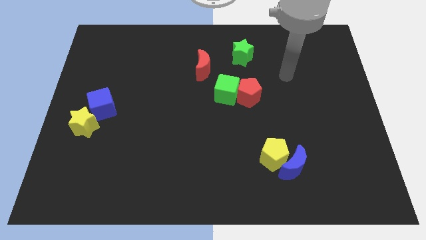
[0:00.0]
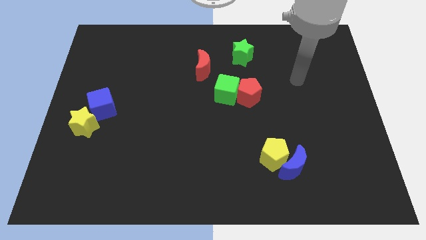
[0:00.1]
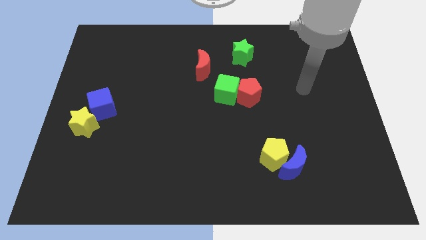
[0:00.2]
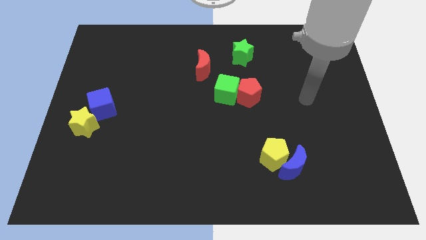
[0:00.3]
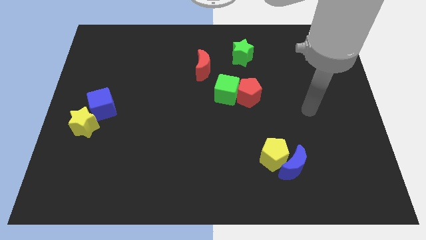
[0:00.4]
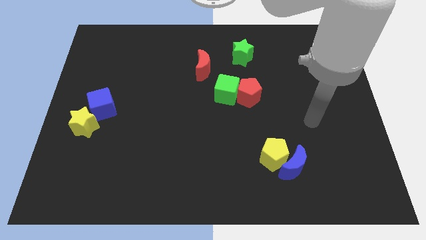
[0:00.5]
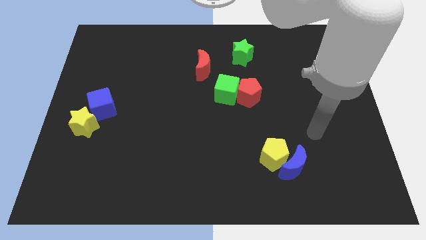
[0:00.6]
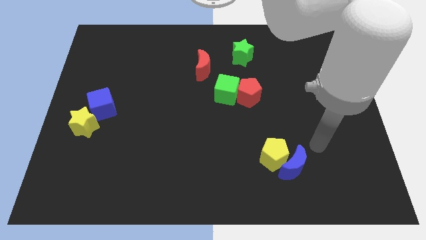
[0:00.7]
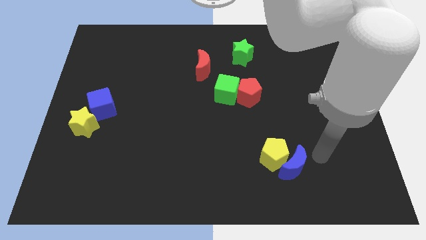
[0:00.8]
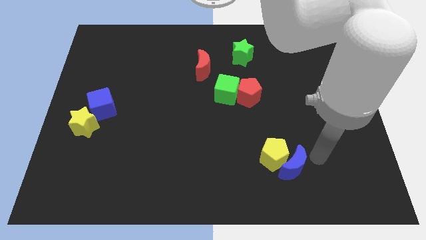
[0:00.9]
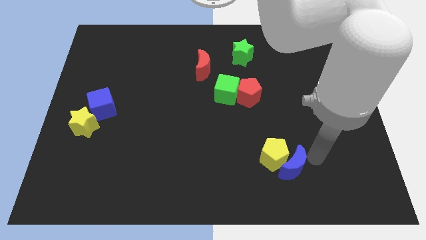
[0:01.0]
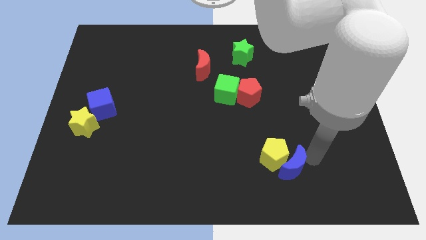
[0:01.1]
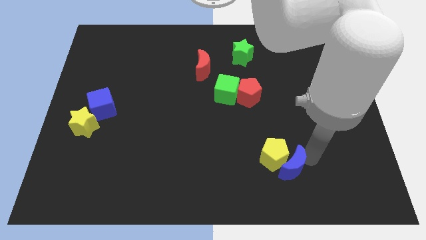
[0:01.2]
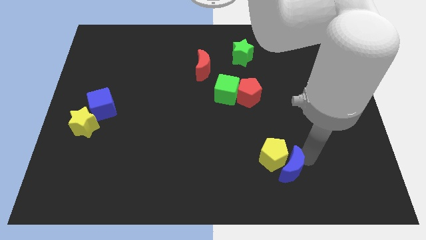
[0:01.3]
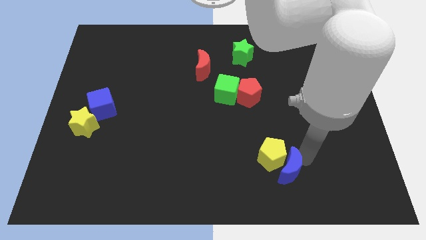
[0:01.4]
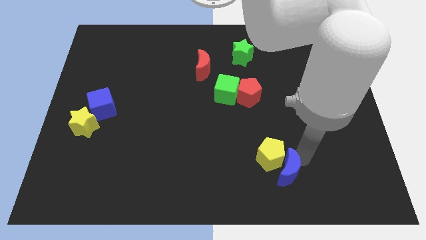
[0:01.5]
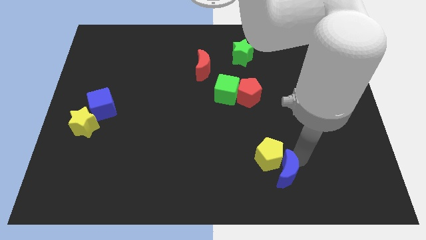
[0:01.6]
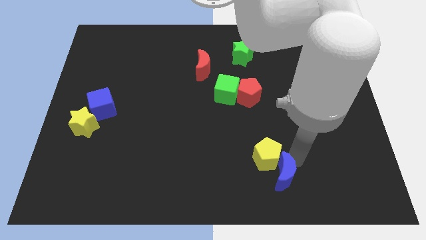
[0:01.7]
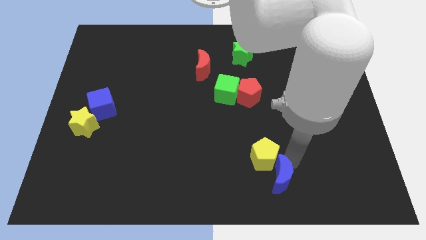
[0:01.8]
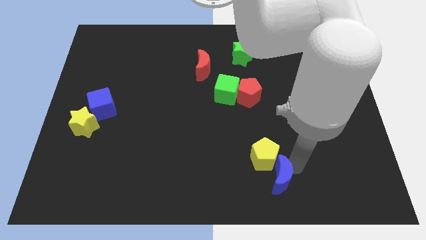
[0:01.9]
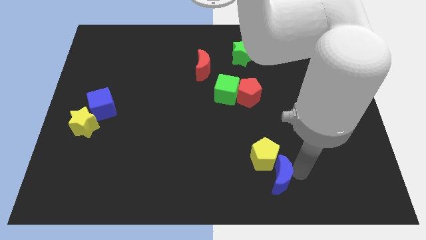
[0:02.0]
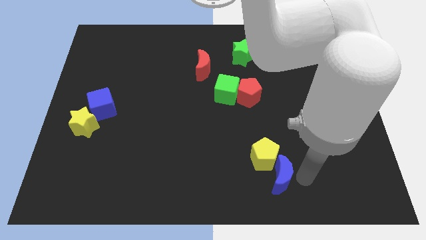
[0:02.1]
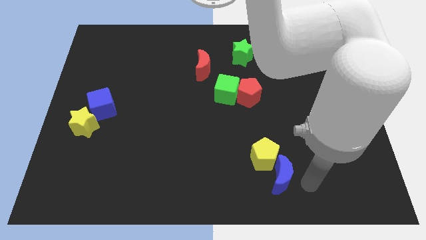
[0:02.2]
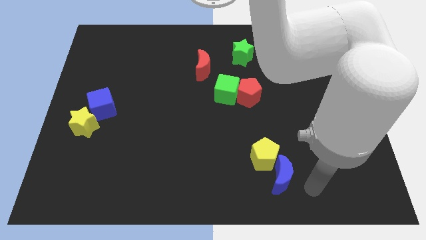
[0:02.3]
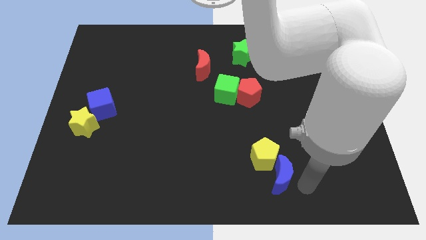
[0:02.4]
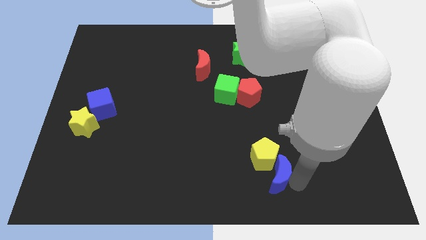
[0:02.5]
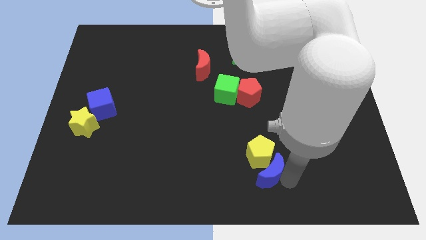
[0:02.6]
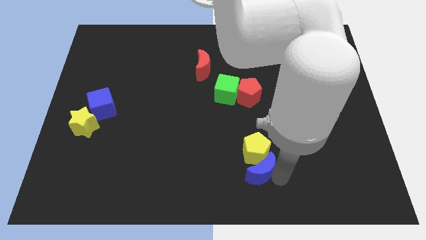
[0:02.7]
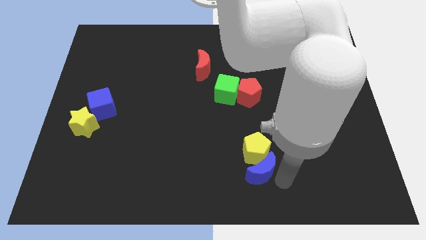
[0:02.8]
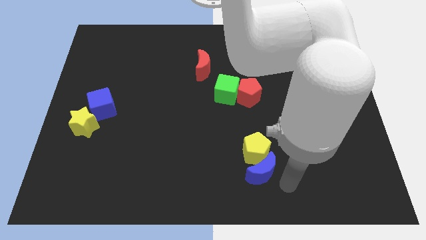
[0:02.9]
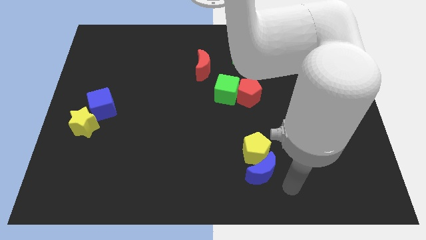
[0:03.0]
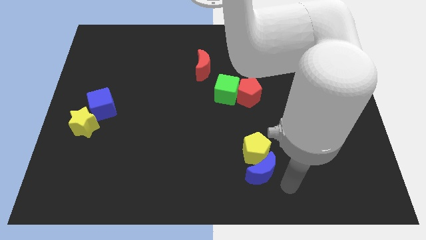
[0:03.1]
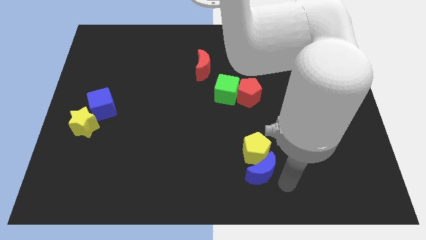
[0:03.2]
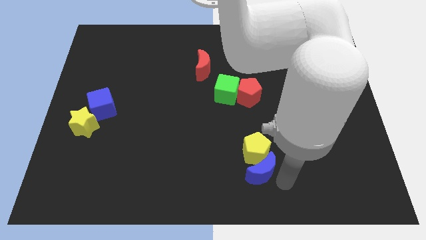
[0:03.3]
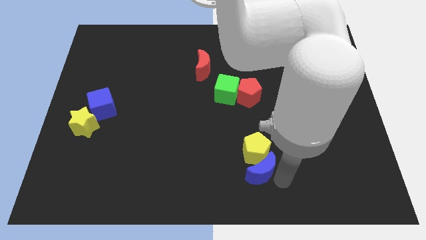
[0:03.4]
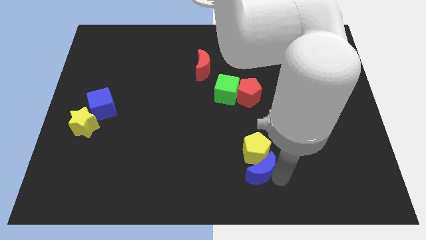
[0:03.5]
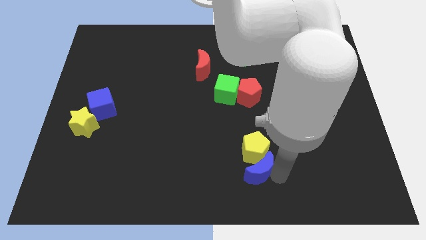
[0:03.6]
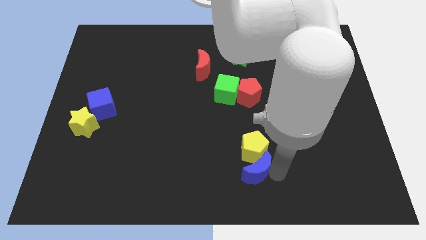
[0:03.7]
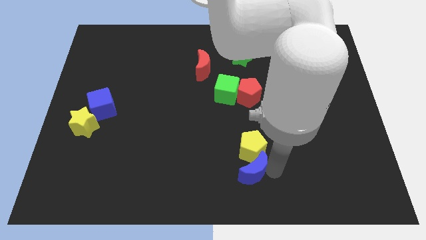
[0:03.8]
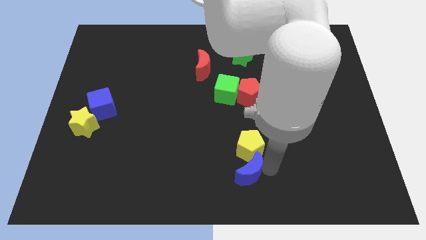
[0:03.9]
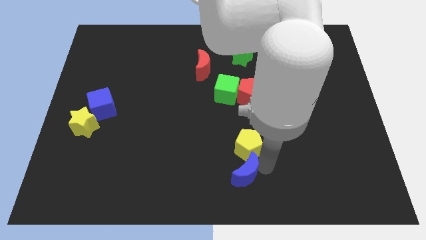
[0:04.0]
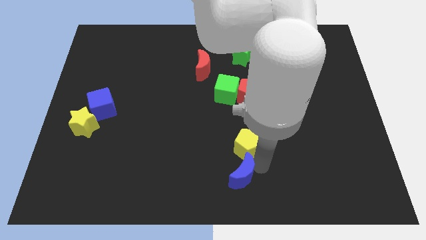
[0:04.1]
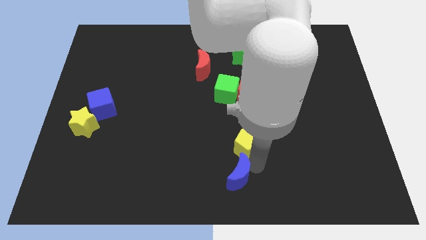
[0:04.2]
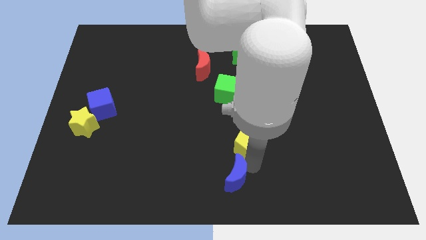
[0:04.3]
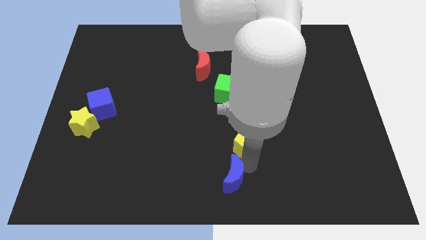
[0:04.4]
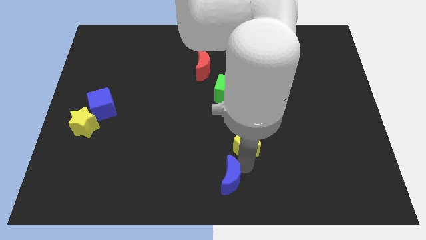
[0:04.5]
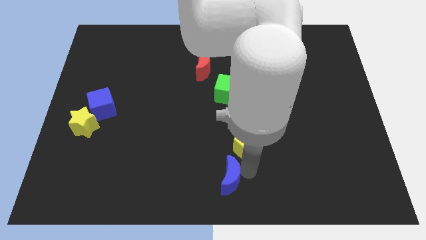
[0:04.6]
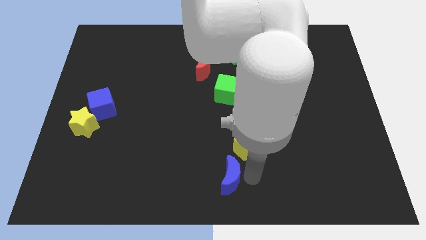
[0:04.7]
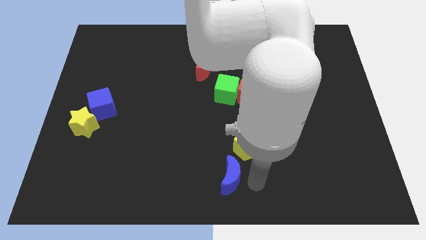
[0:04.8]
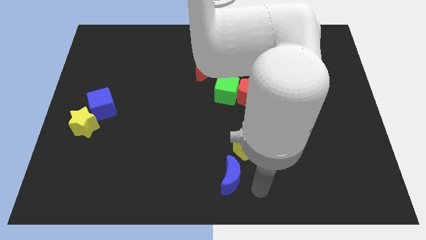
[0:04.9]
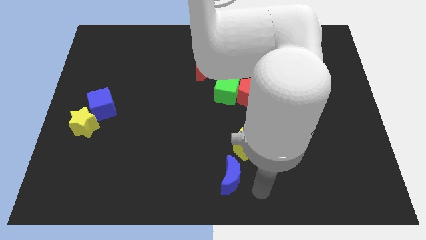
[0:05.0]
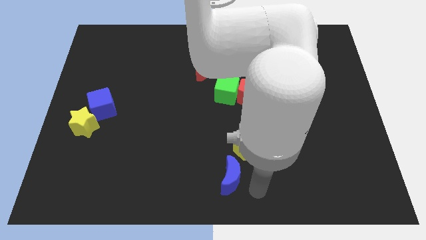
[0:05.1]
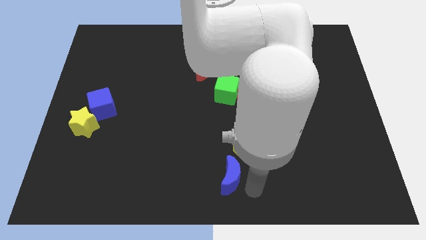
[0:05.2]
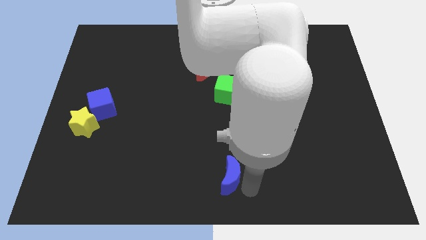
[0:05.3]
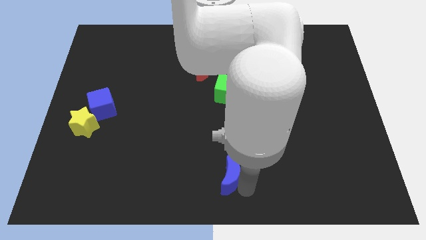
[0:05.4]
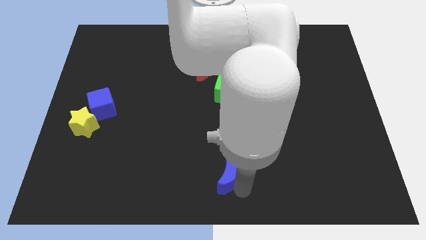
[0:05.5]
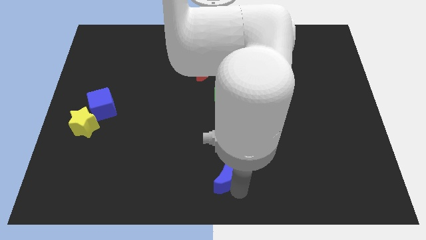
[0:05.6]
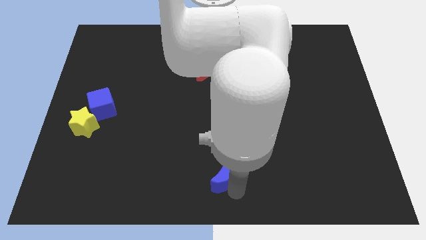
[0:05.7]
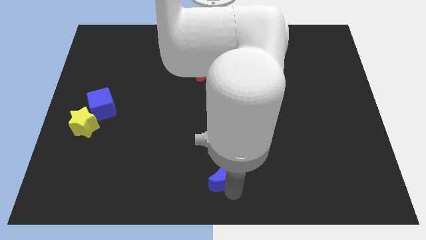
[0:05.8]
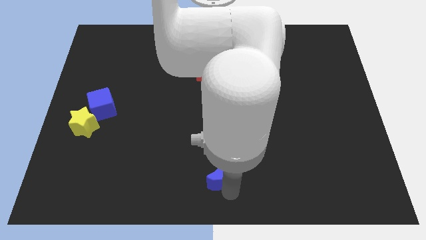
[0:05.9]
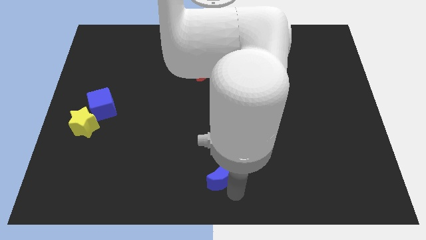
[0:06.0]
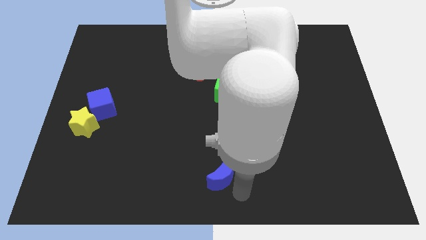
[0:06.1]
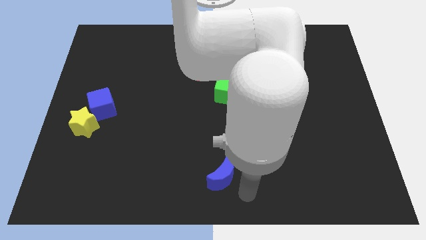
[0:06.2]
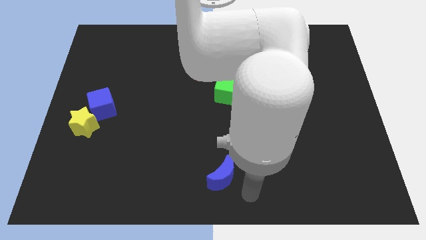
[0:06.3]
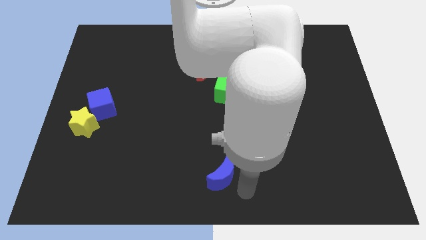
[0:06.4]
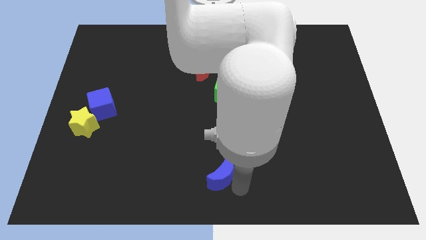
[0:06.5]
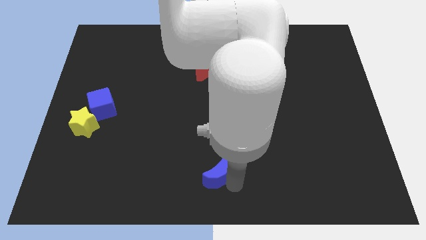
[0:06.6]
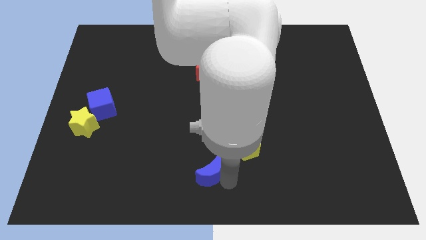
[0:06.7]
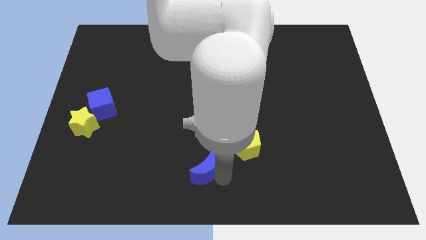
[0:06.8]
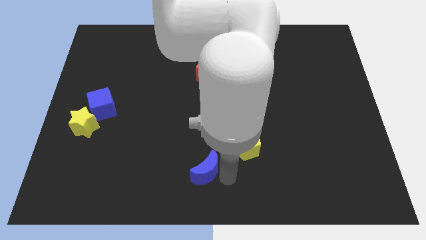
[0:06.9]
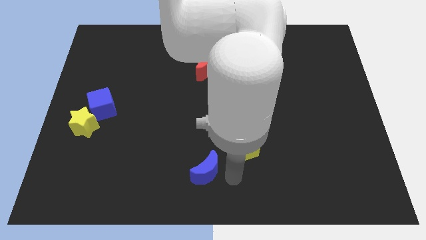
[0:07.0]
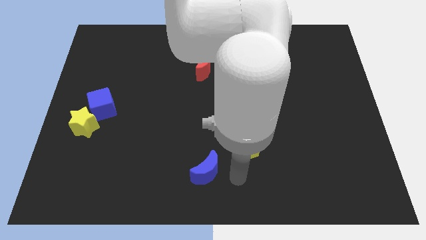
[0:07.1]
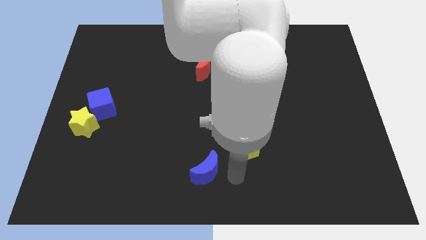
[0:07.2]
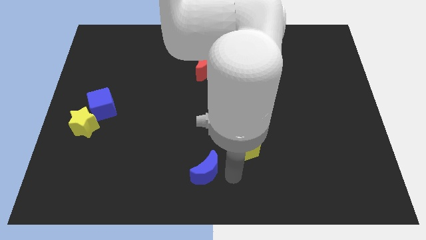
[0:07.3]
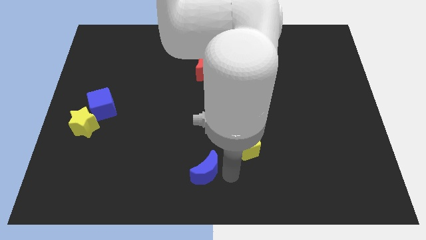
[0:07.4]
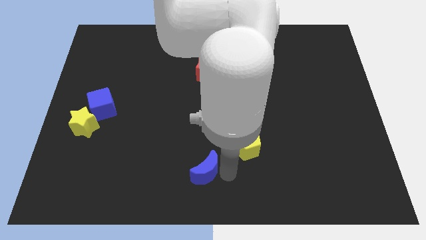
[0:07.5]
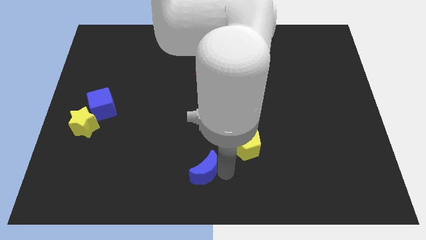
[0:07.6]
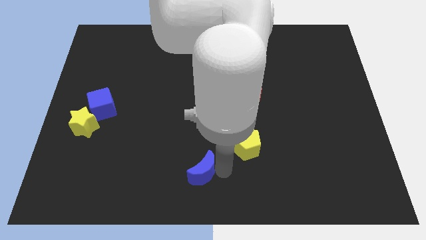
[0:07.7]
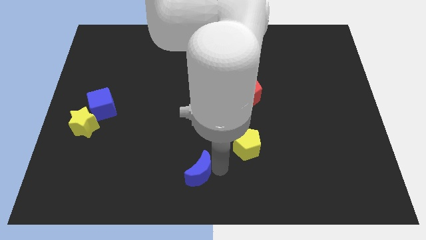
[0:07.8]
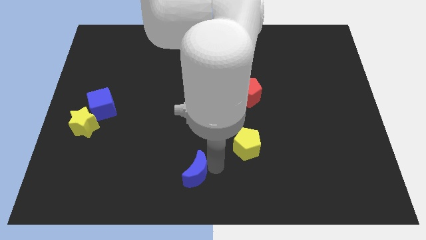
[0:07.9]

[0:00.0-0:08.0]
slide the blue moon left

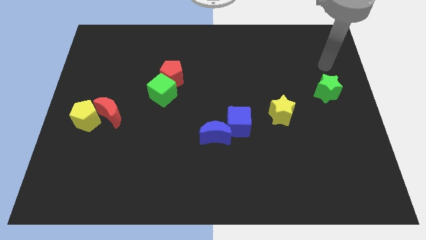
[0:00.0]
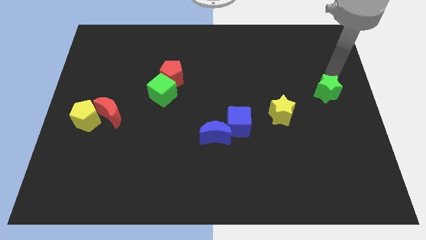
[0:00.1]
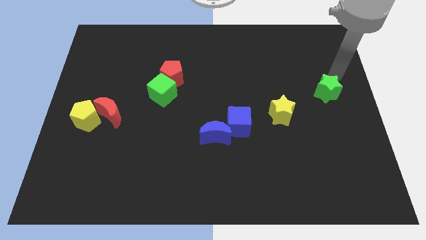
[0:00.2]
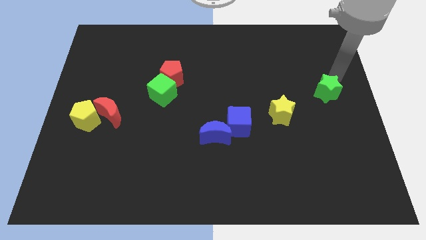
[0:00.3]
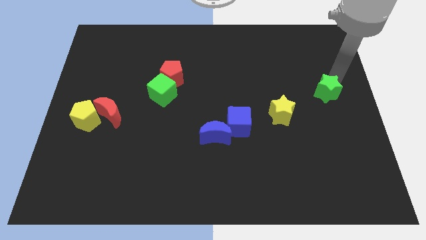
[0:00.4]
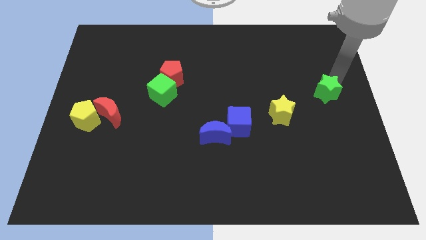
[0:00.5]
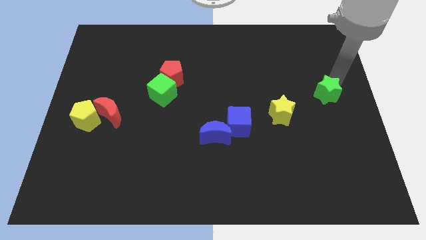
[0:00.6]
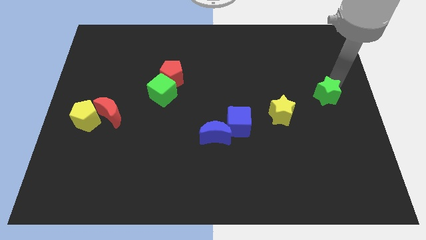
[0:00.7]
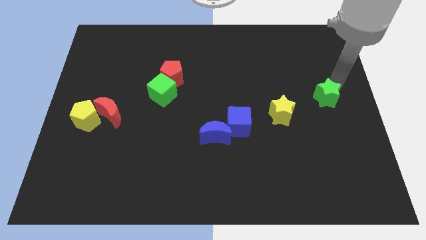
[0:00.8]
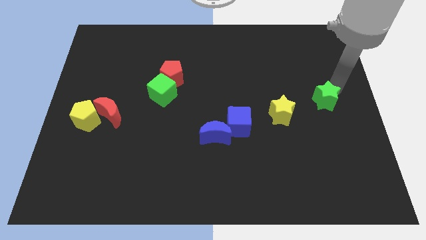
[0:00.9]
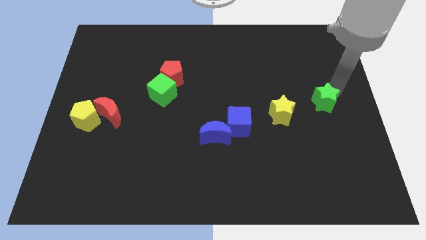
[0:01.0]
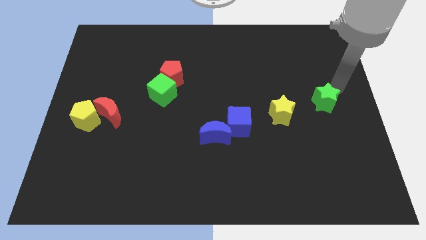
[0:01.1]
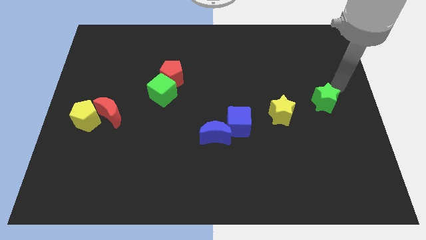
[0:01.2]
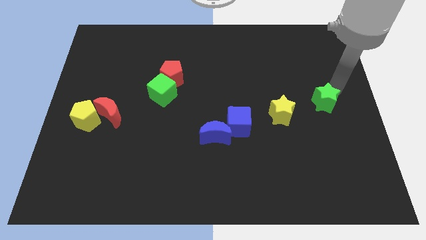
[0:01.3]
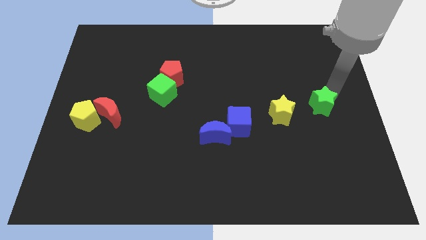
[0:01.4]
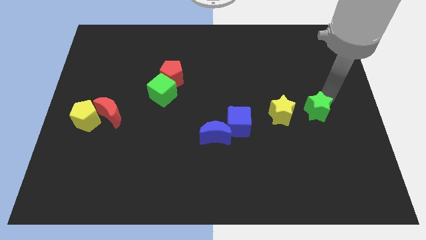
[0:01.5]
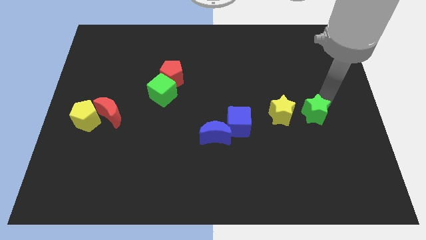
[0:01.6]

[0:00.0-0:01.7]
push the green star down and then to the left a little
